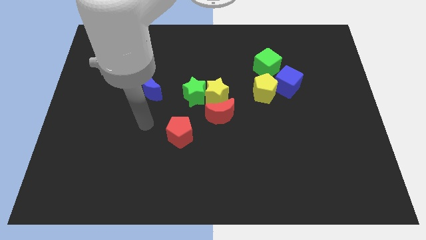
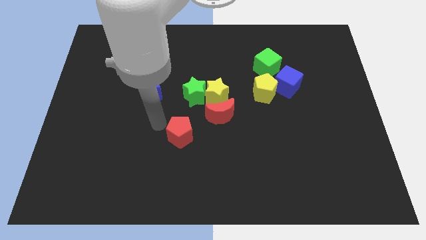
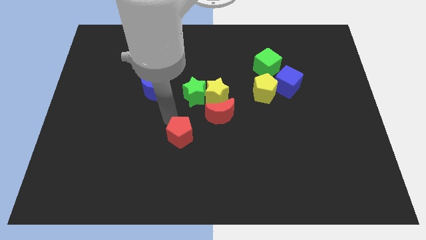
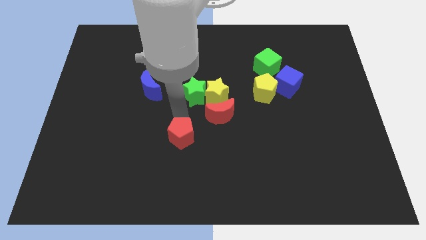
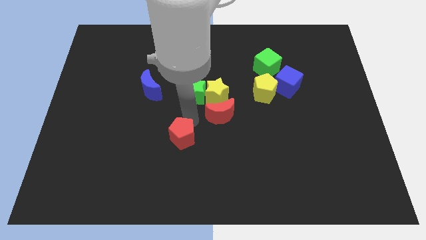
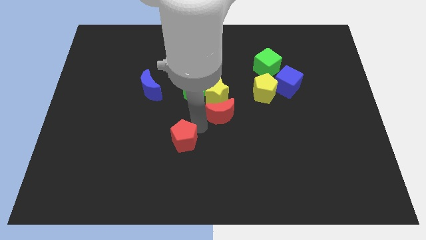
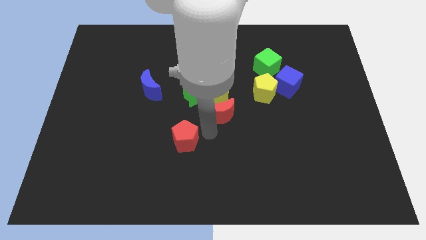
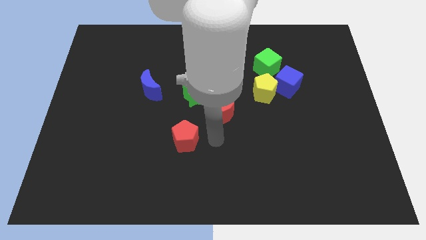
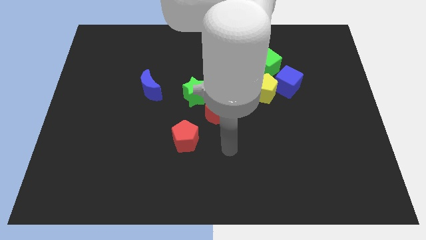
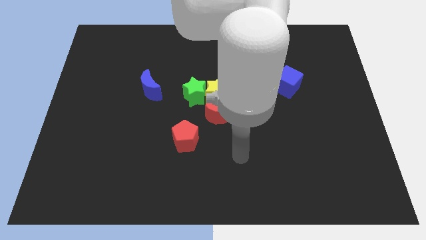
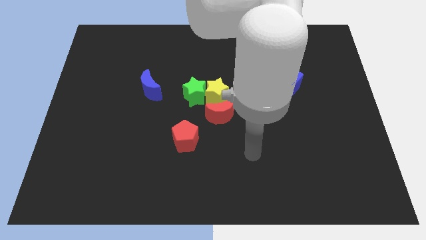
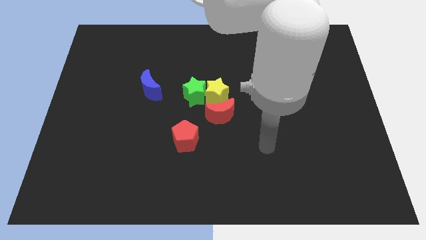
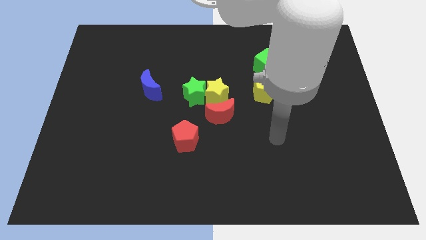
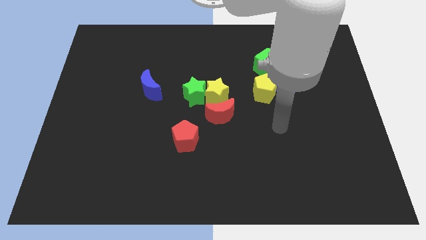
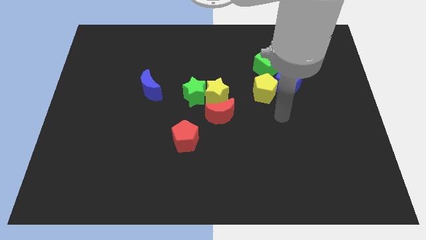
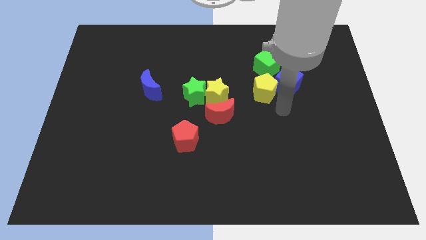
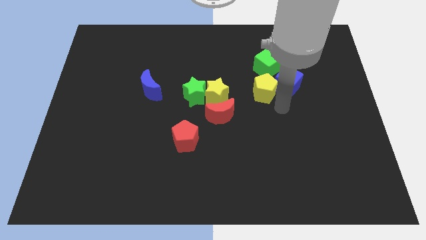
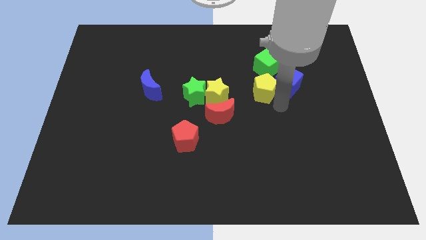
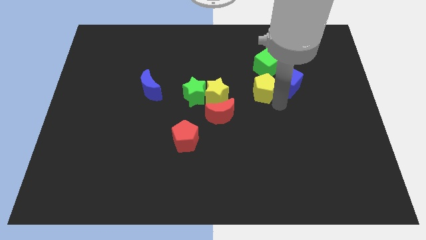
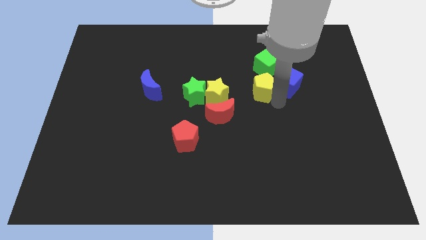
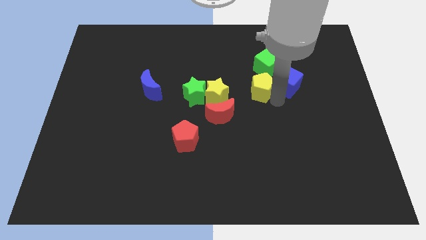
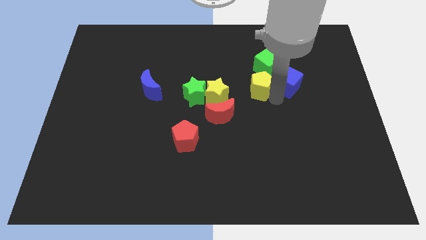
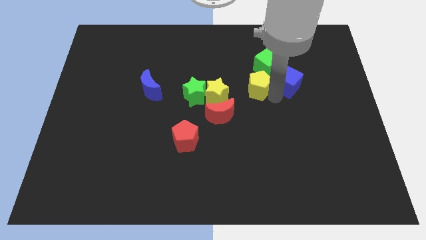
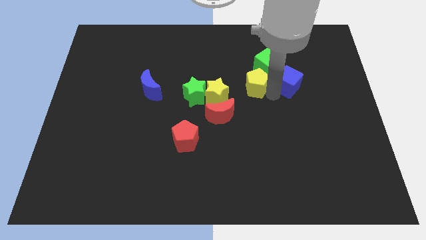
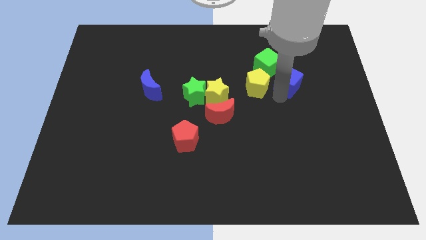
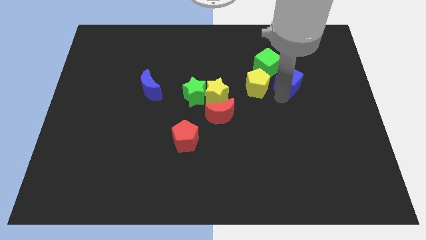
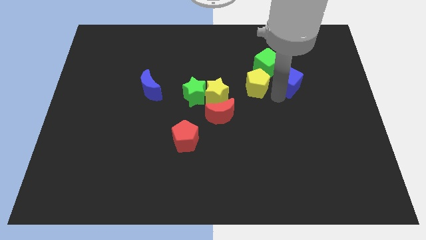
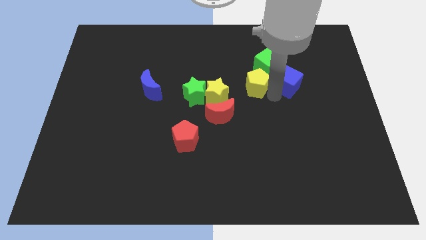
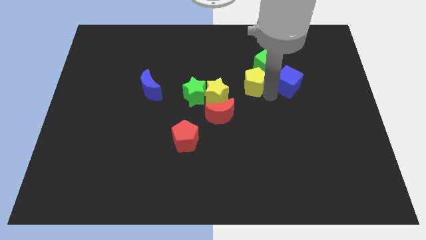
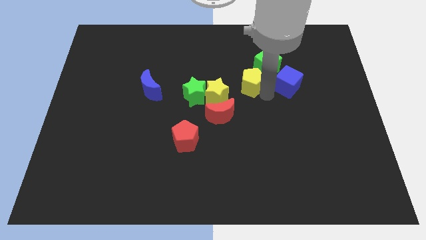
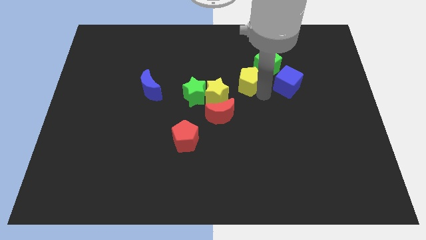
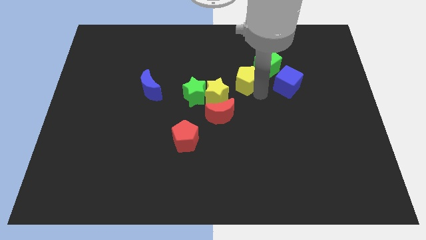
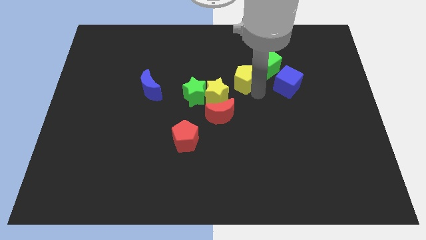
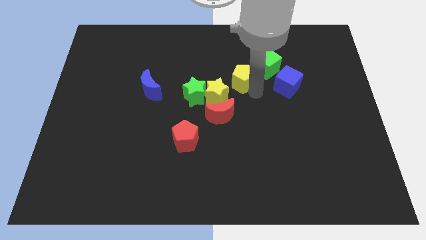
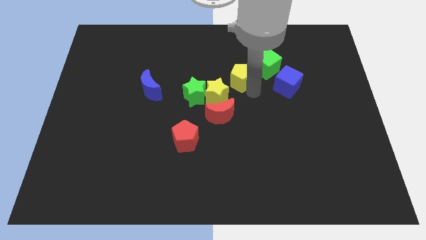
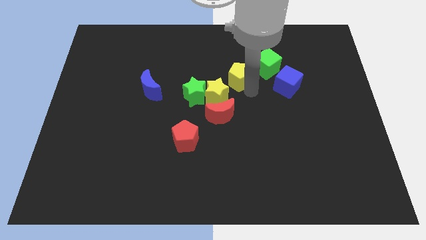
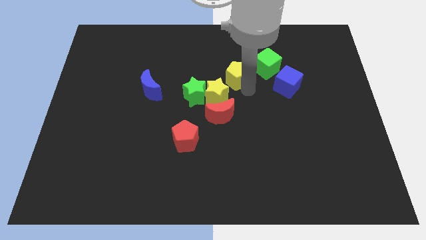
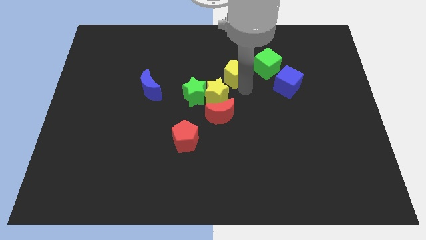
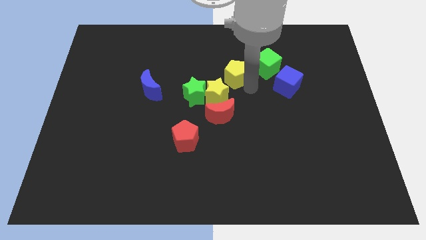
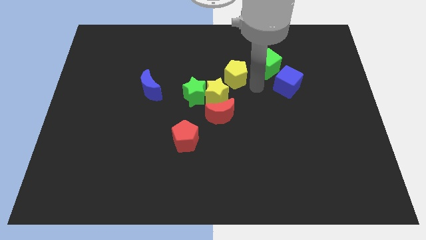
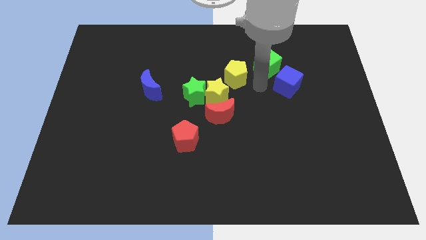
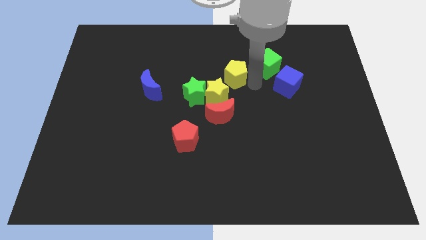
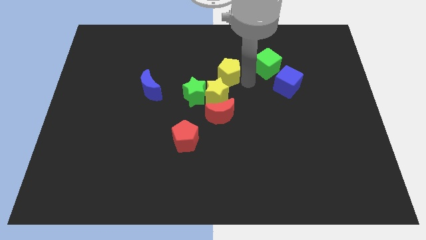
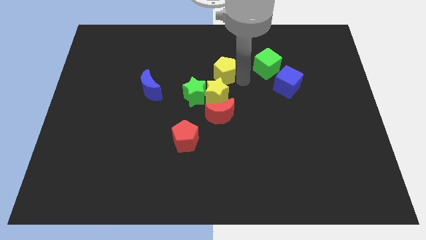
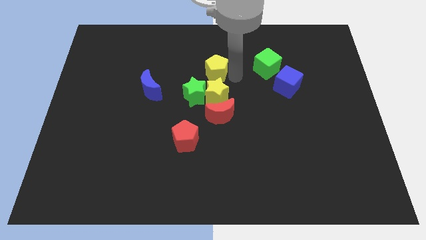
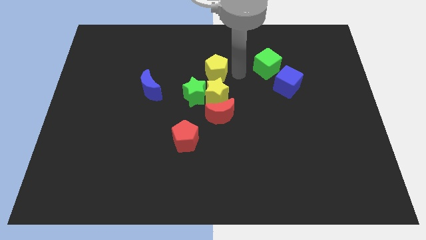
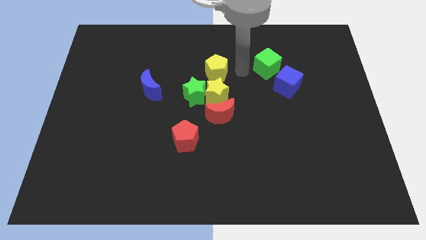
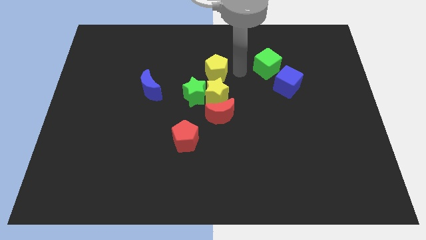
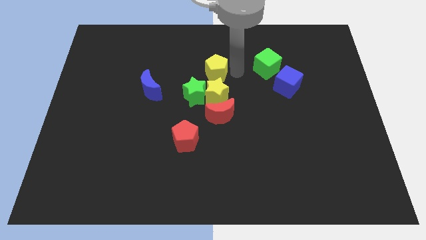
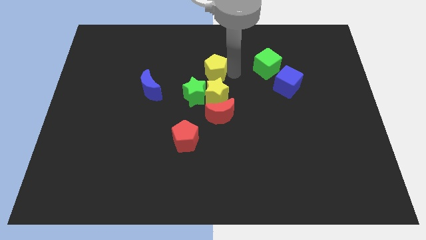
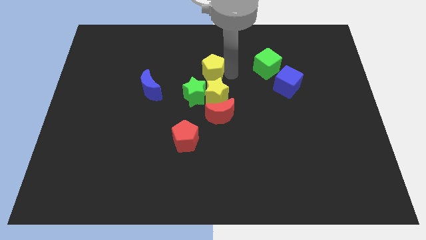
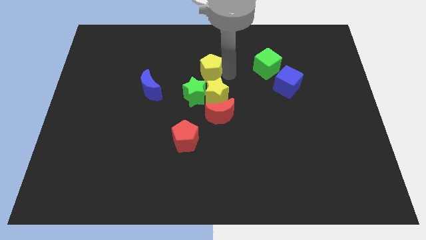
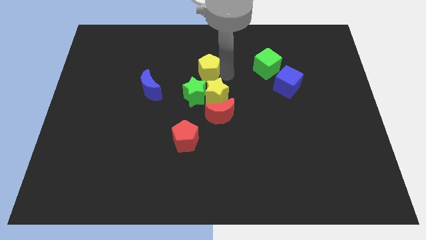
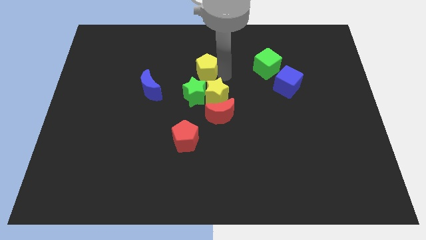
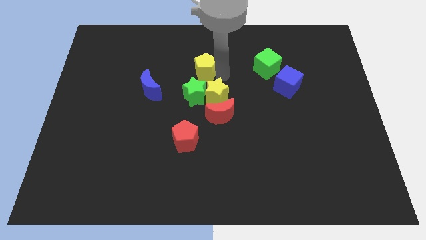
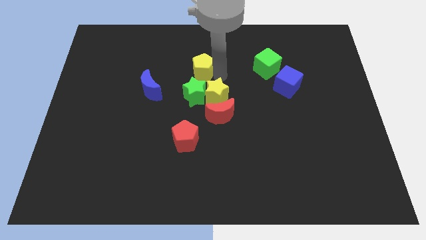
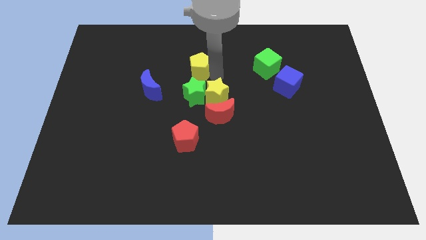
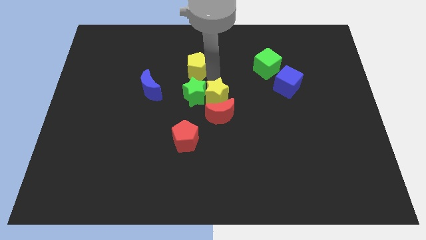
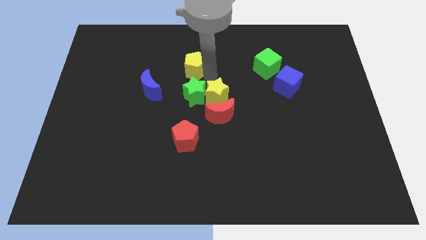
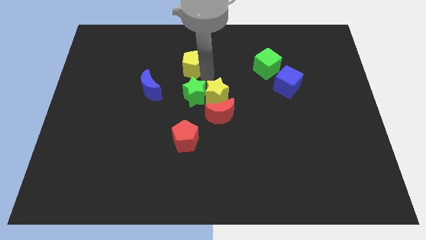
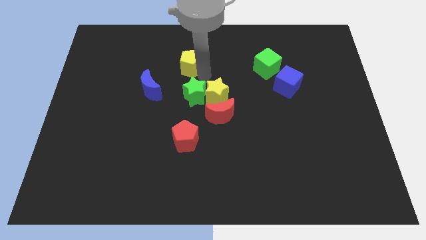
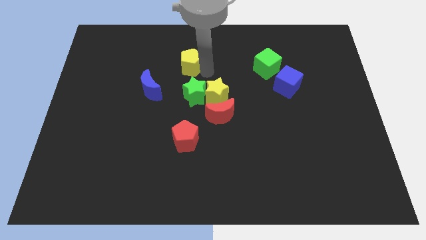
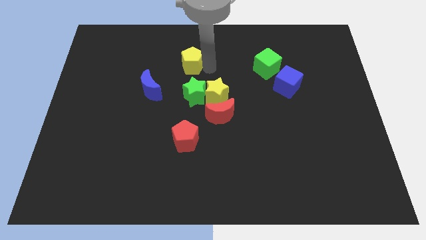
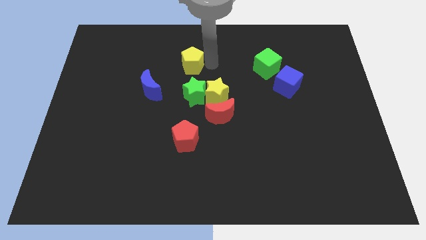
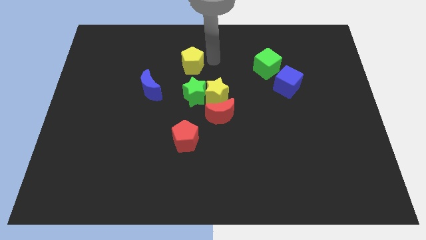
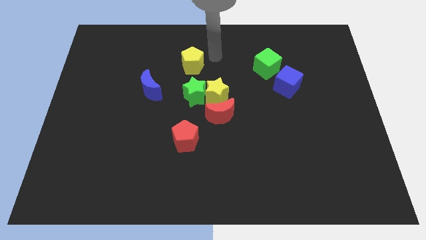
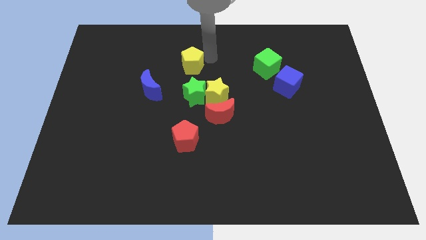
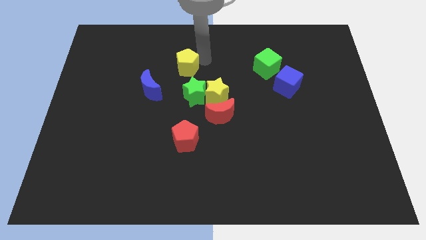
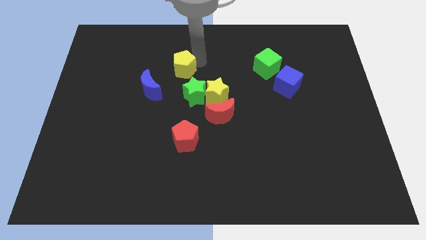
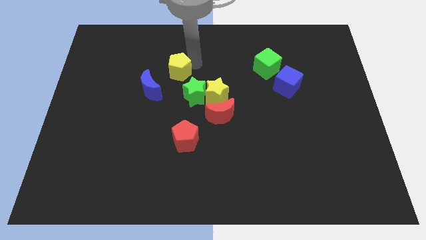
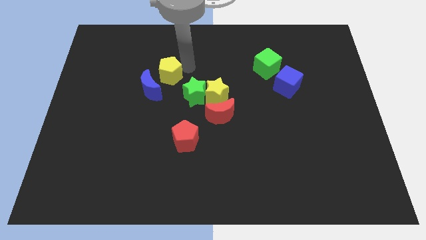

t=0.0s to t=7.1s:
move the yellow pentagon left

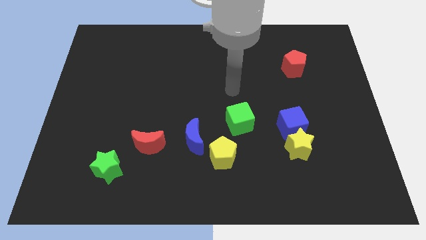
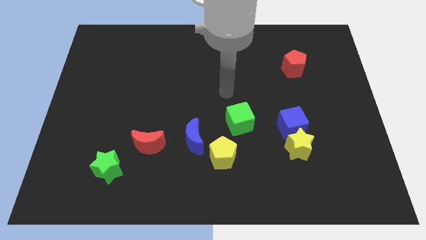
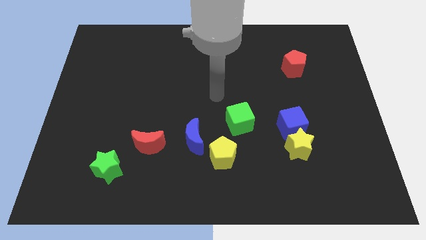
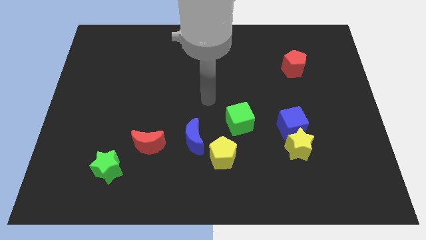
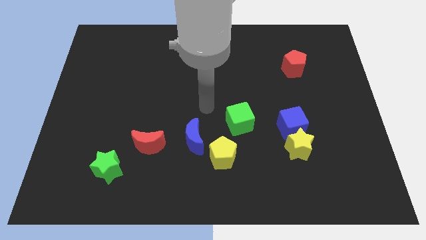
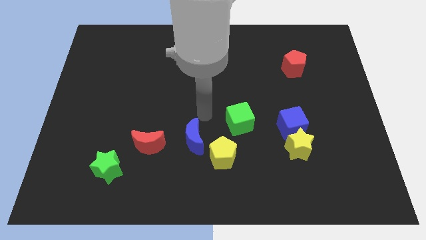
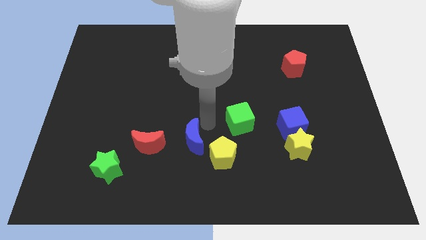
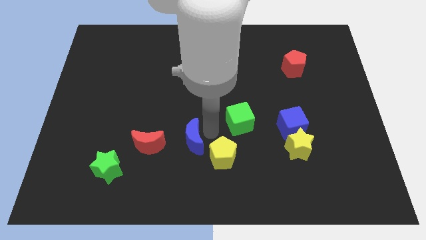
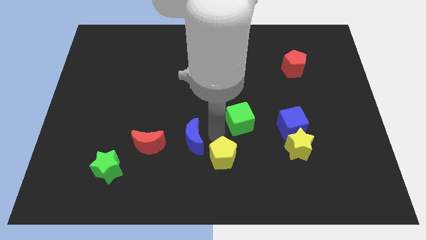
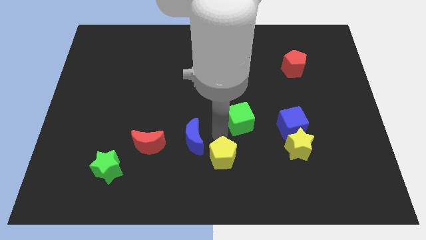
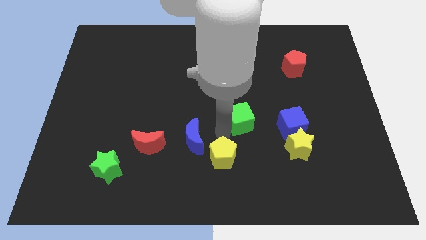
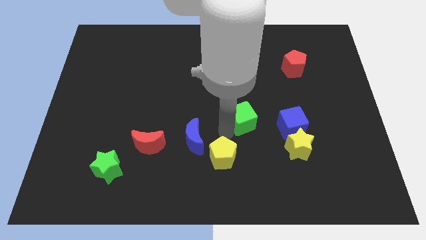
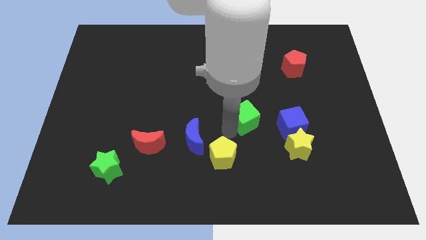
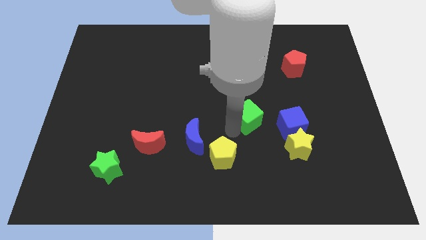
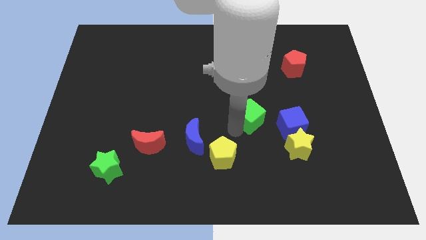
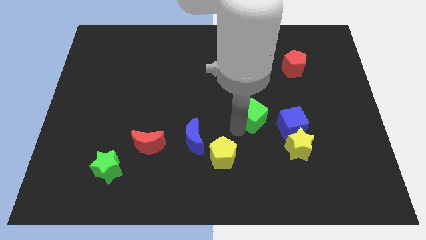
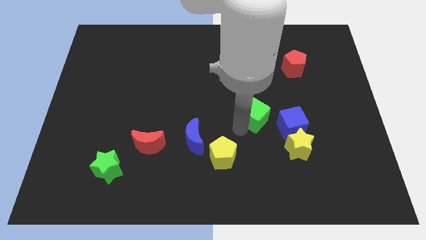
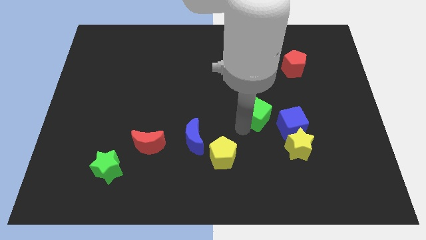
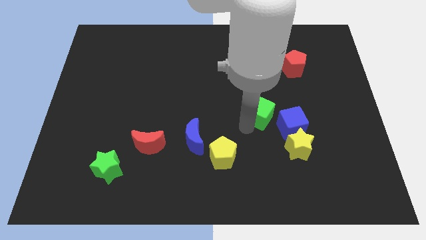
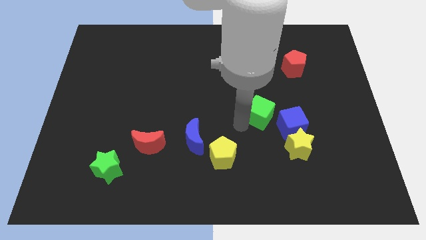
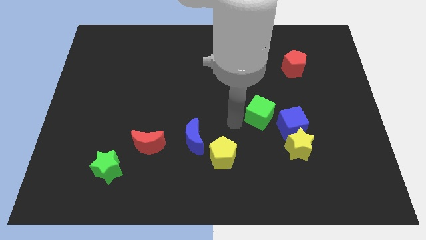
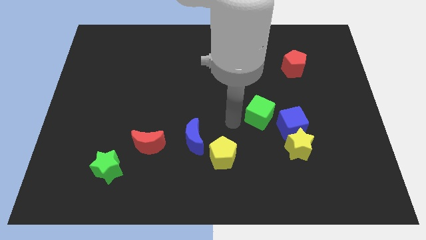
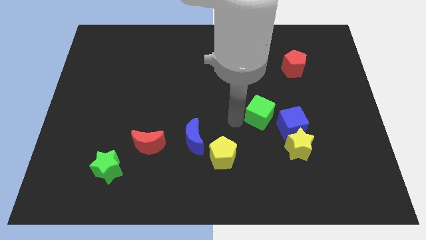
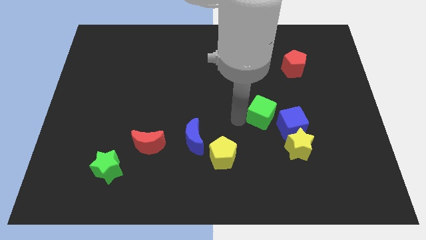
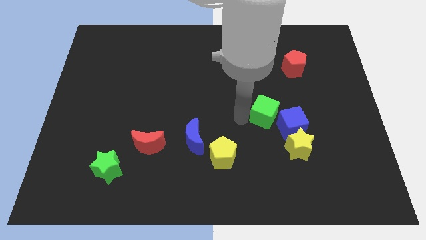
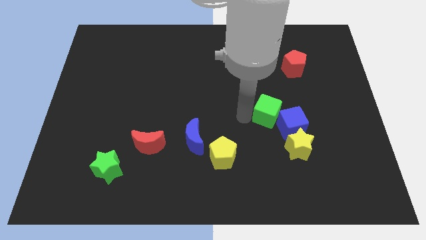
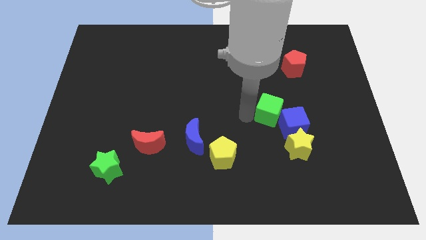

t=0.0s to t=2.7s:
slightly move the green cube right
